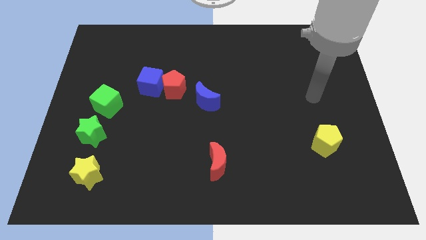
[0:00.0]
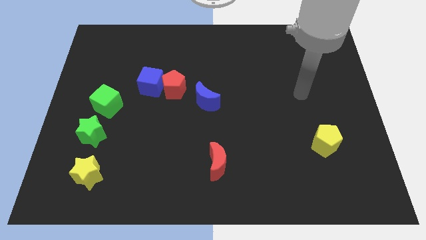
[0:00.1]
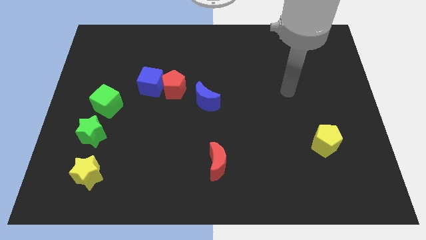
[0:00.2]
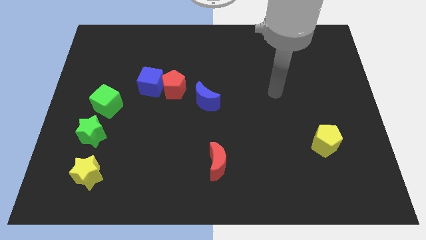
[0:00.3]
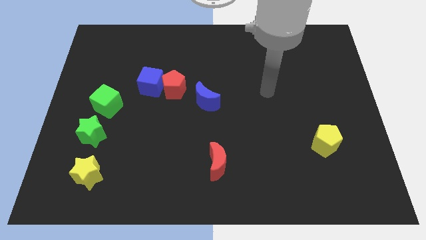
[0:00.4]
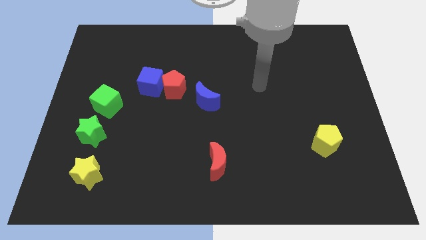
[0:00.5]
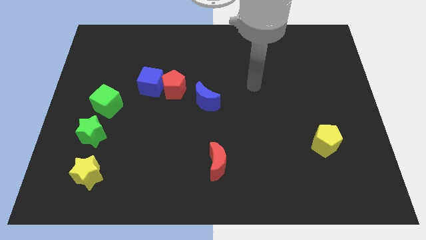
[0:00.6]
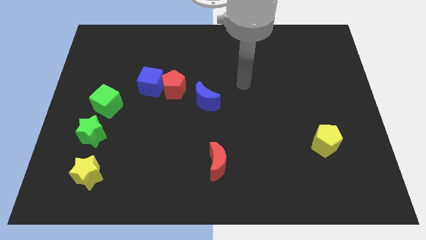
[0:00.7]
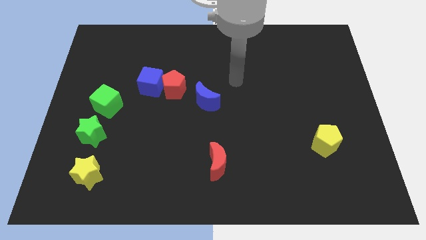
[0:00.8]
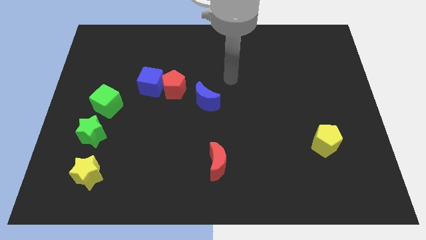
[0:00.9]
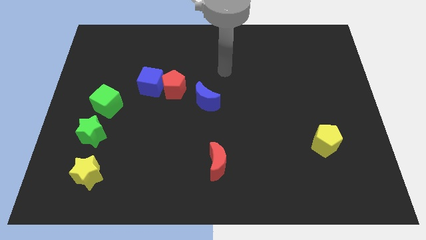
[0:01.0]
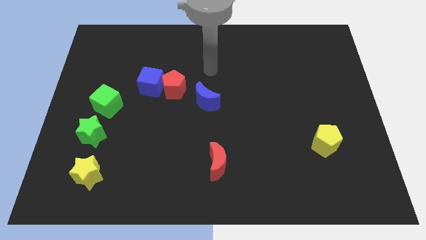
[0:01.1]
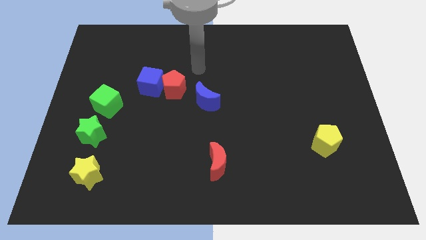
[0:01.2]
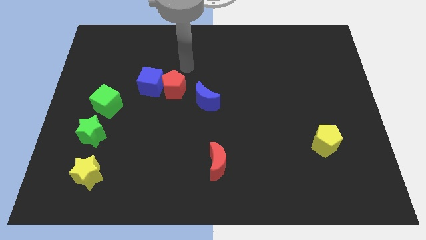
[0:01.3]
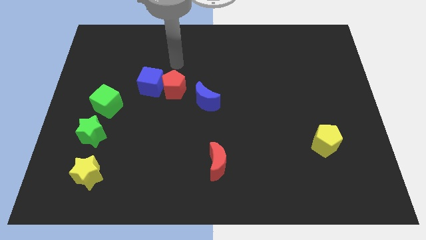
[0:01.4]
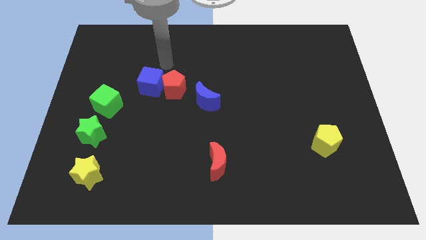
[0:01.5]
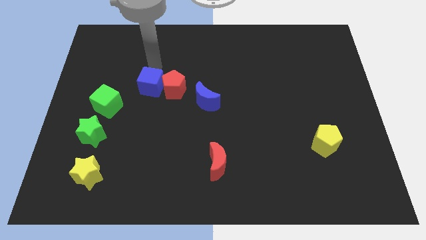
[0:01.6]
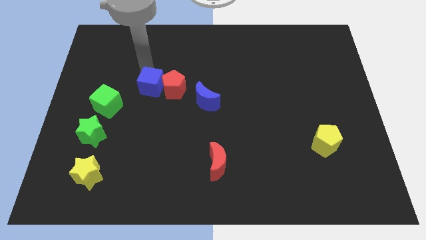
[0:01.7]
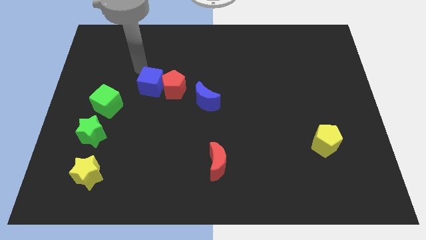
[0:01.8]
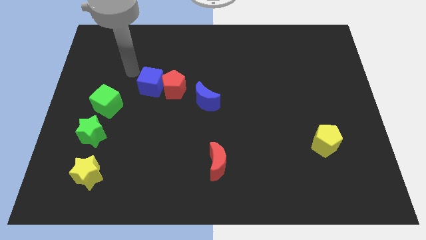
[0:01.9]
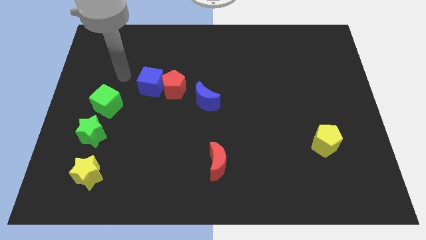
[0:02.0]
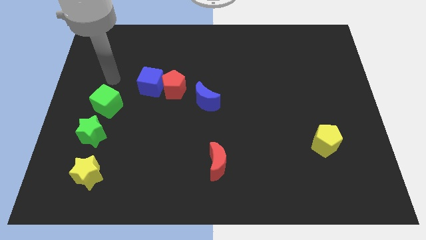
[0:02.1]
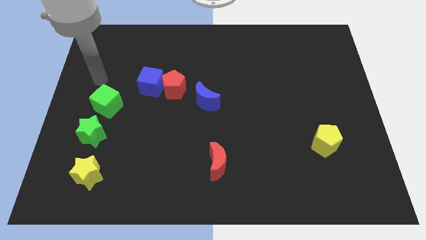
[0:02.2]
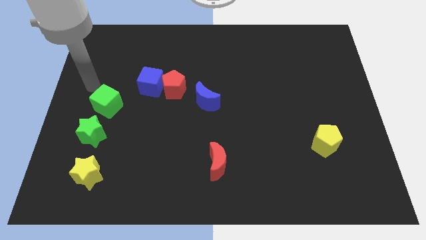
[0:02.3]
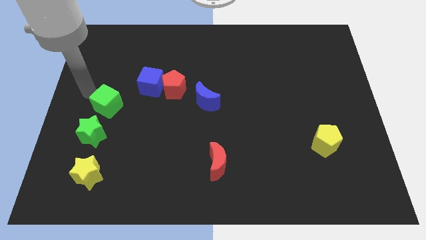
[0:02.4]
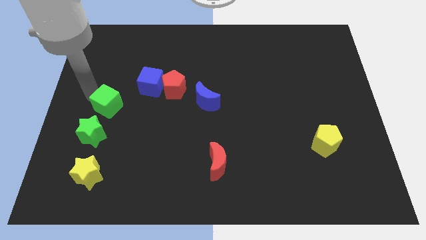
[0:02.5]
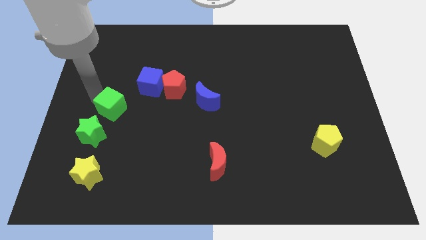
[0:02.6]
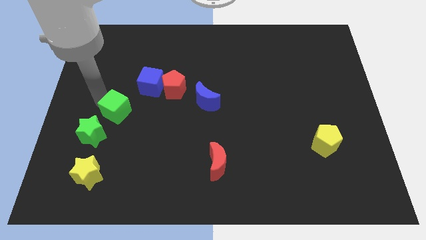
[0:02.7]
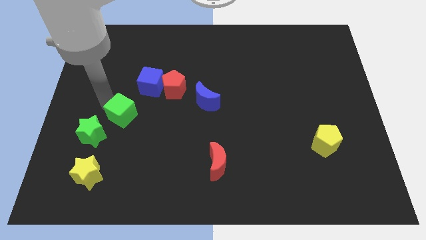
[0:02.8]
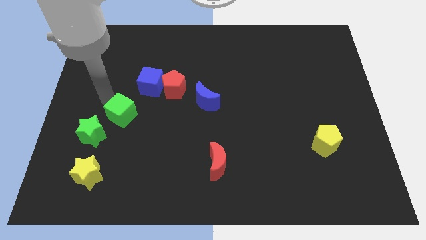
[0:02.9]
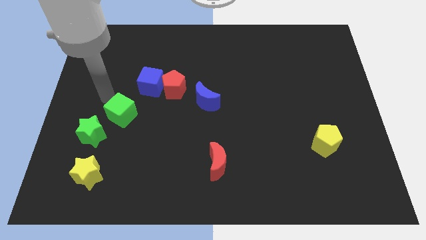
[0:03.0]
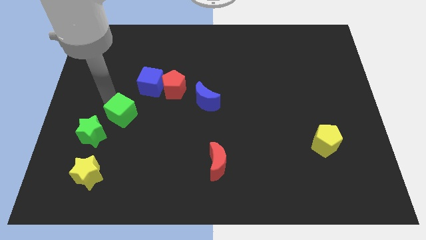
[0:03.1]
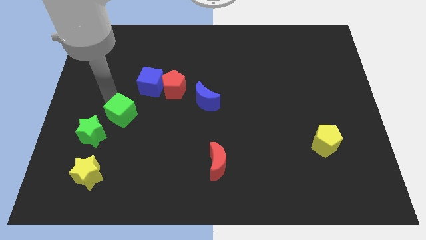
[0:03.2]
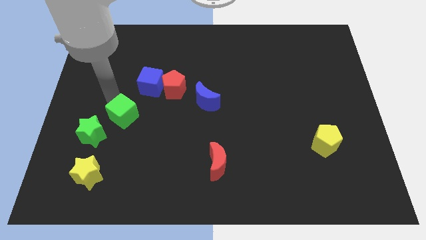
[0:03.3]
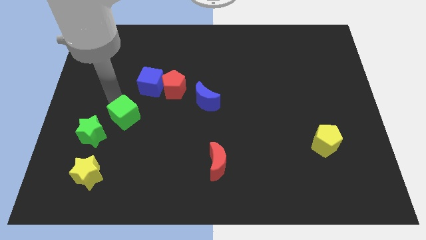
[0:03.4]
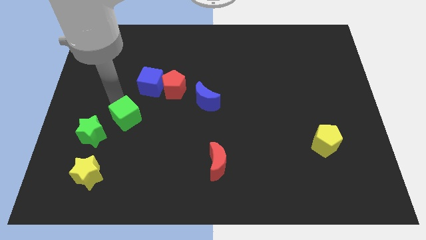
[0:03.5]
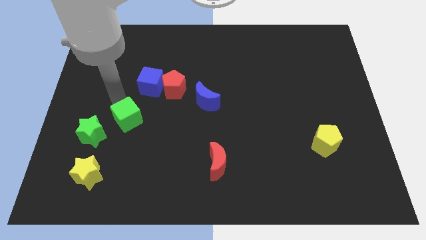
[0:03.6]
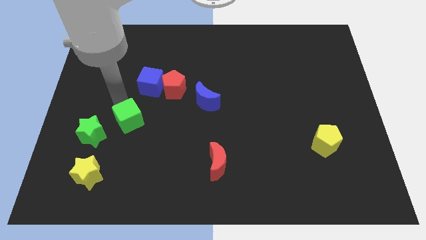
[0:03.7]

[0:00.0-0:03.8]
move the green cube downwards and to the right a little bit

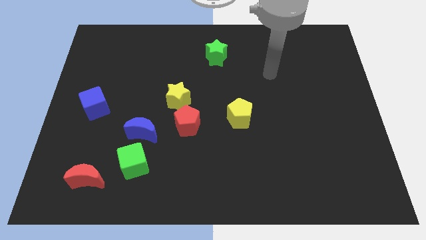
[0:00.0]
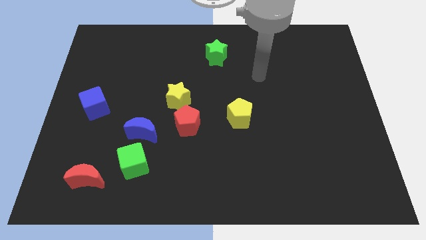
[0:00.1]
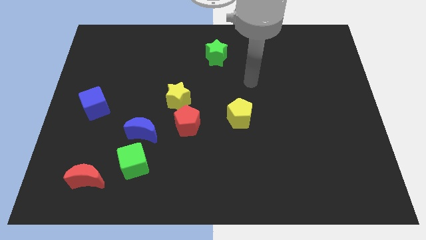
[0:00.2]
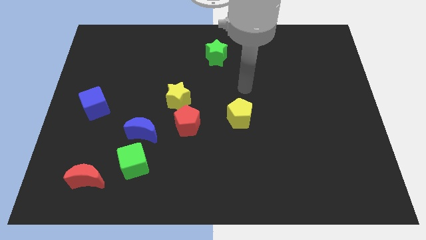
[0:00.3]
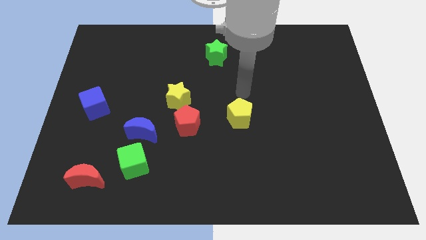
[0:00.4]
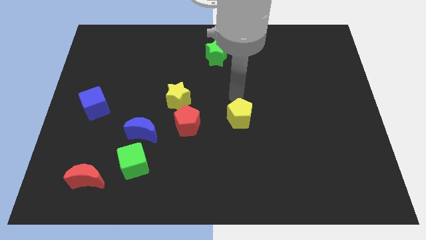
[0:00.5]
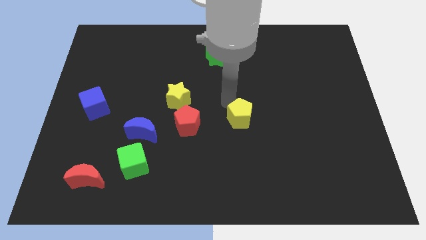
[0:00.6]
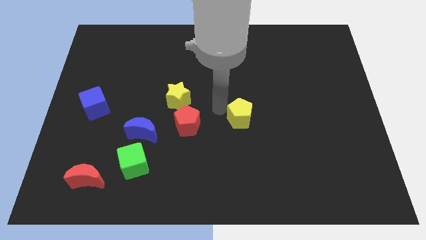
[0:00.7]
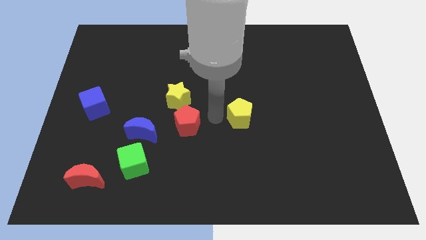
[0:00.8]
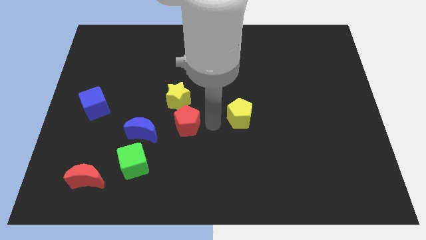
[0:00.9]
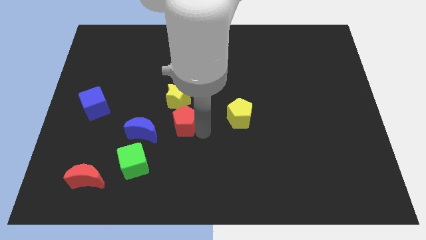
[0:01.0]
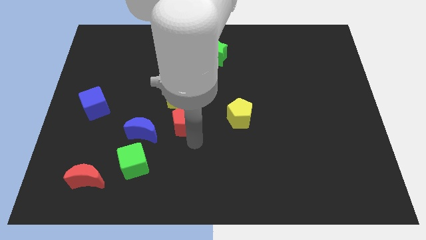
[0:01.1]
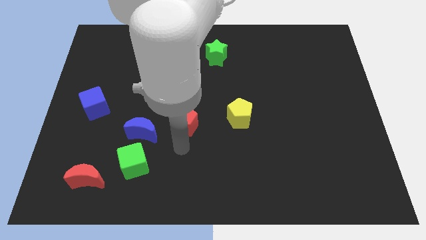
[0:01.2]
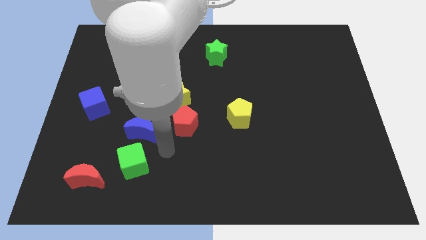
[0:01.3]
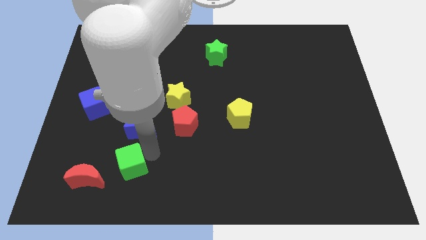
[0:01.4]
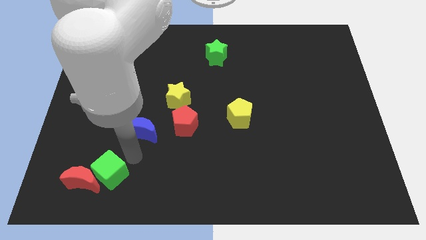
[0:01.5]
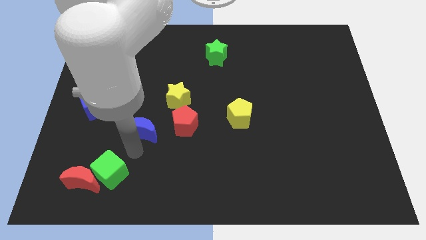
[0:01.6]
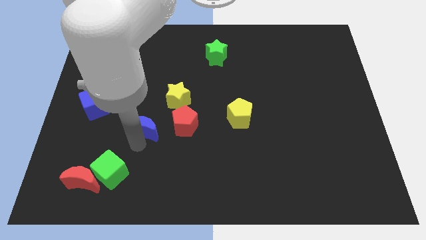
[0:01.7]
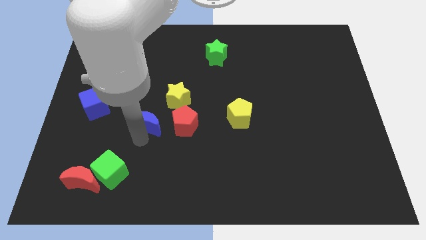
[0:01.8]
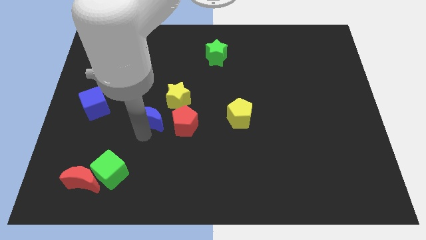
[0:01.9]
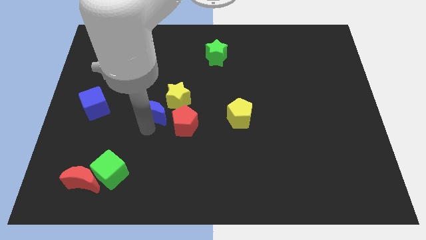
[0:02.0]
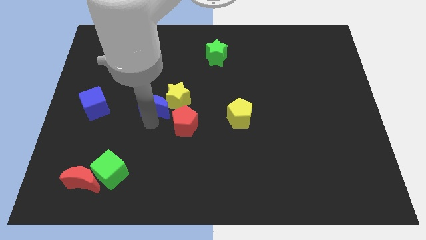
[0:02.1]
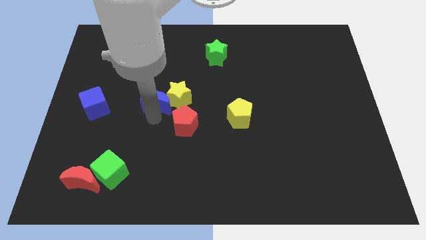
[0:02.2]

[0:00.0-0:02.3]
move the blue moon upwards and to the right diagonally a little bit

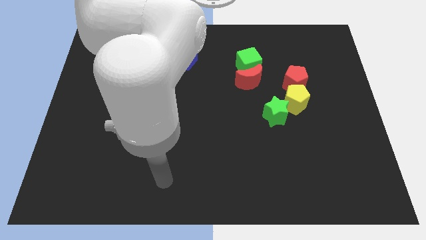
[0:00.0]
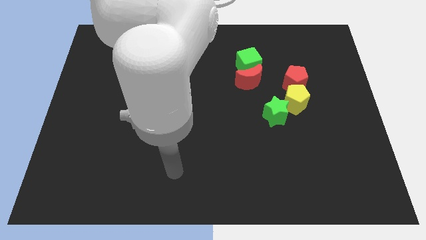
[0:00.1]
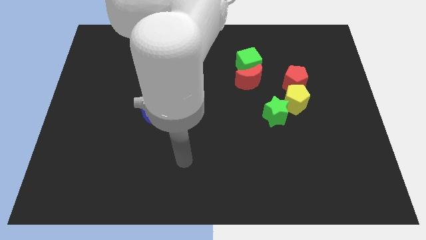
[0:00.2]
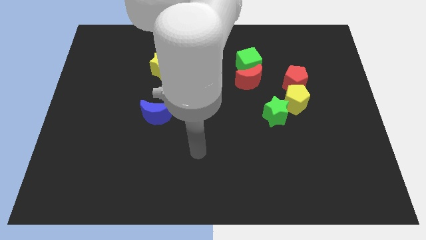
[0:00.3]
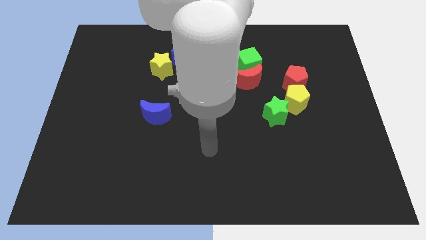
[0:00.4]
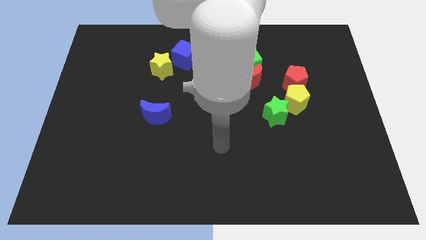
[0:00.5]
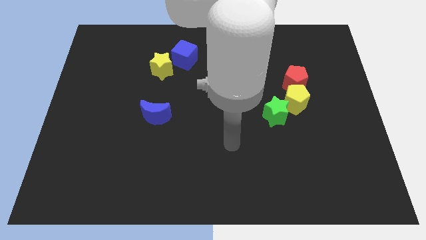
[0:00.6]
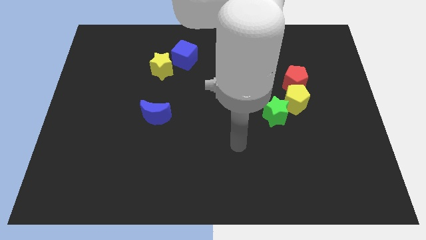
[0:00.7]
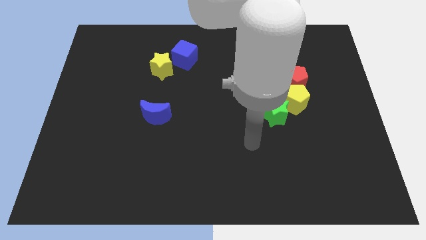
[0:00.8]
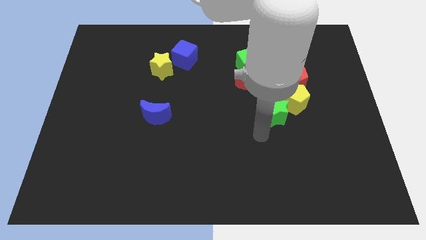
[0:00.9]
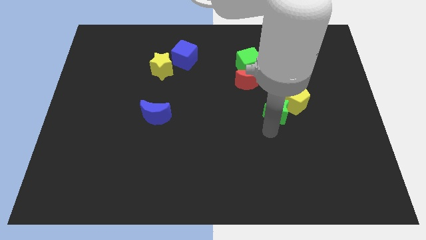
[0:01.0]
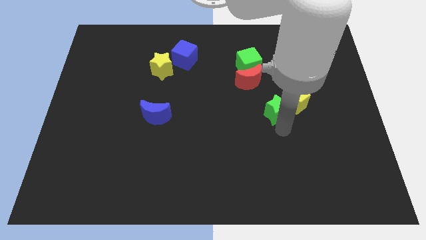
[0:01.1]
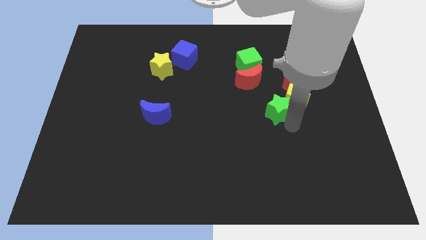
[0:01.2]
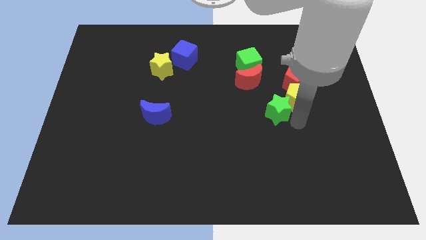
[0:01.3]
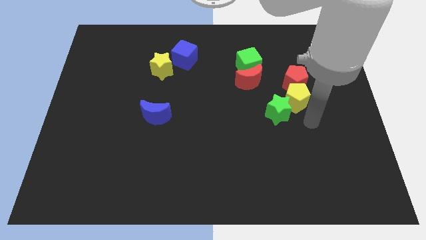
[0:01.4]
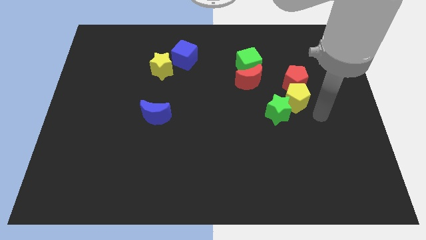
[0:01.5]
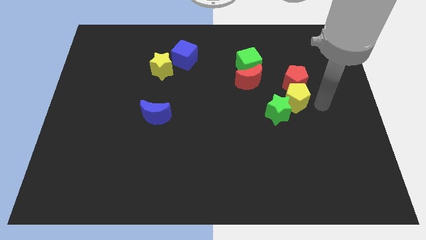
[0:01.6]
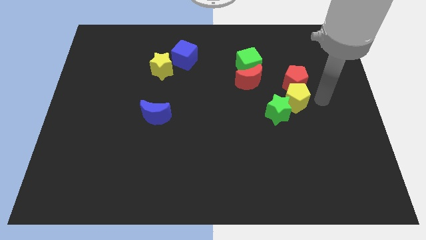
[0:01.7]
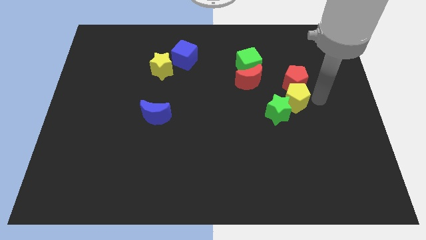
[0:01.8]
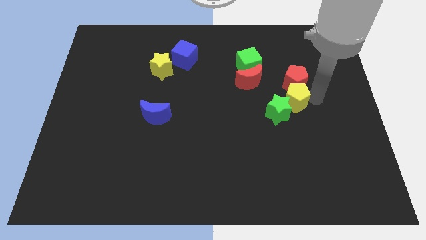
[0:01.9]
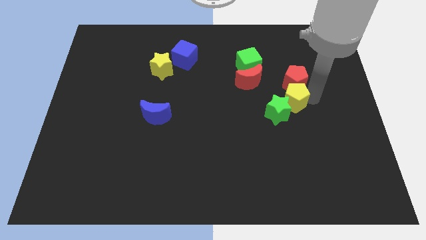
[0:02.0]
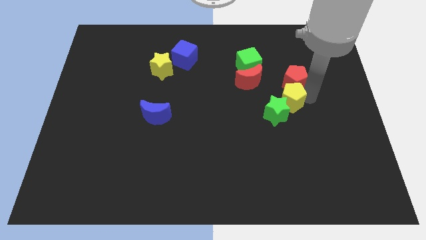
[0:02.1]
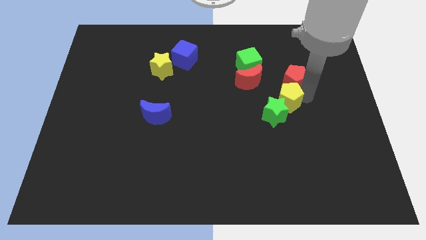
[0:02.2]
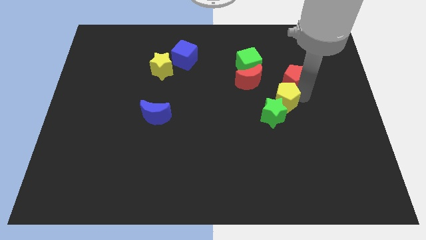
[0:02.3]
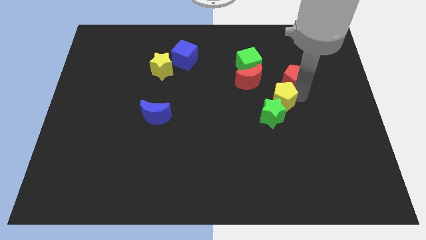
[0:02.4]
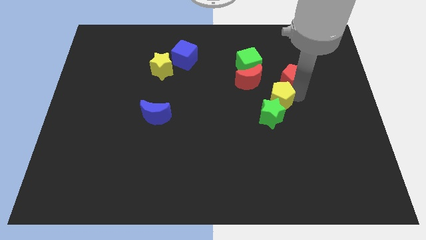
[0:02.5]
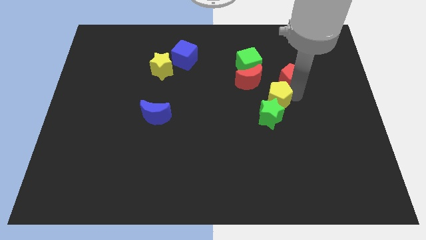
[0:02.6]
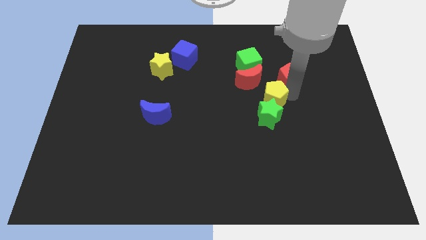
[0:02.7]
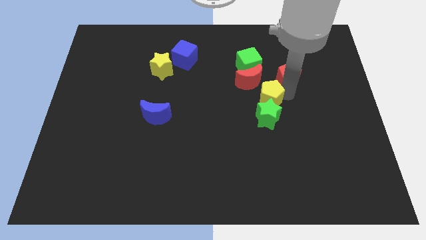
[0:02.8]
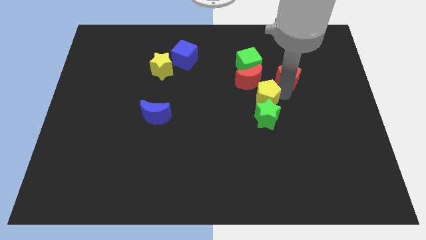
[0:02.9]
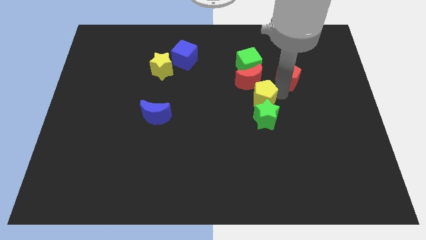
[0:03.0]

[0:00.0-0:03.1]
slide the yellow pentagon a little bit left
